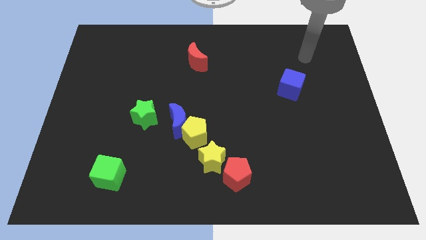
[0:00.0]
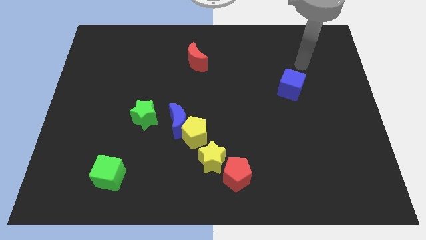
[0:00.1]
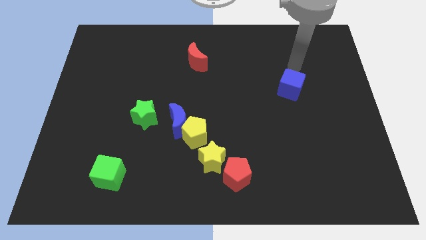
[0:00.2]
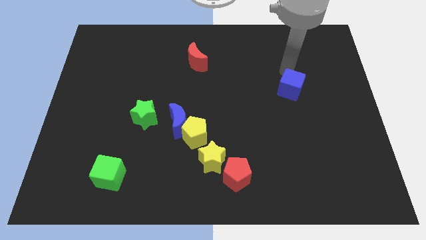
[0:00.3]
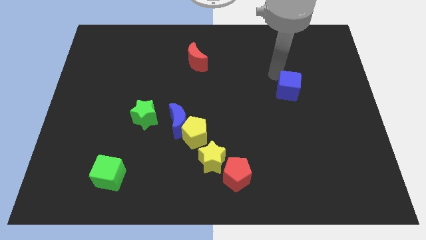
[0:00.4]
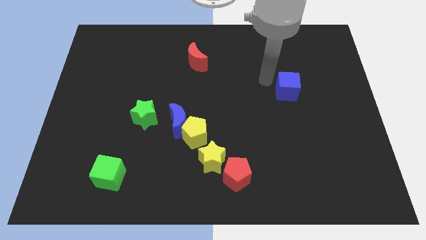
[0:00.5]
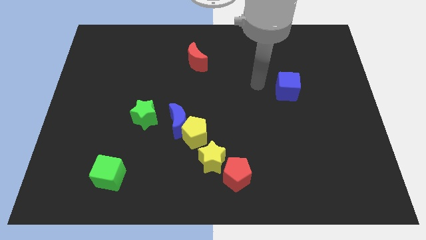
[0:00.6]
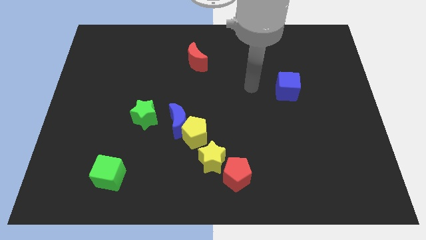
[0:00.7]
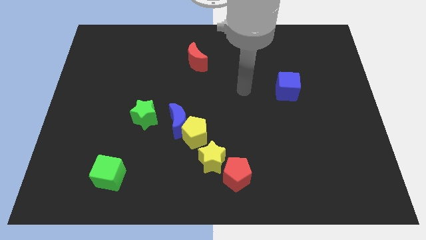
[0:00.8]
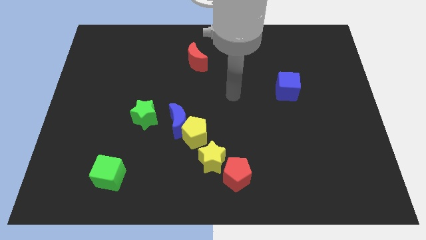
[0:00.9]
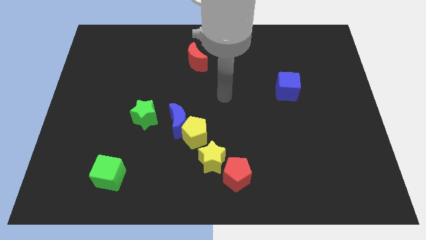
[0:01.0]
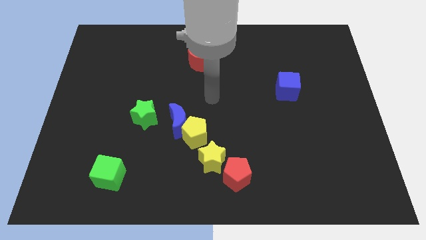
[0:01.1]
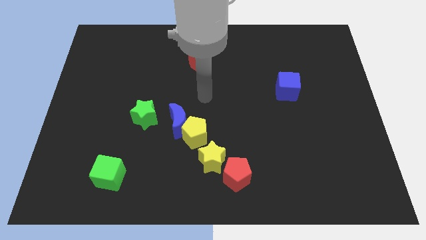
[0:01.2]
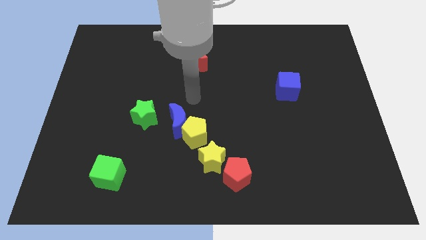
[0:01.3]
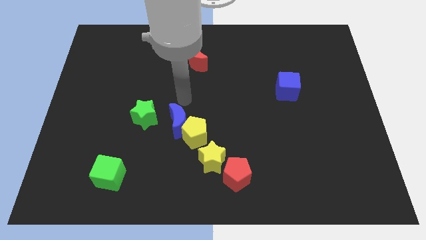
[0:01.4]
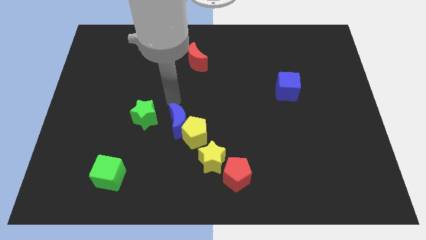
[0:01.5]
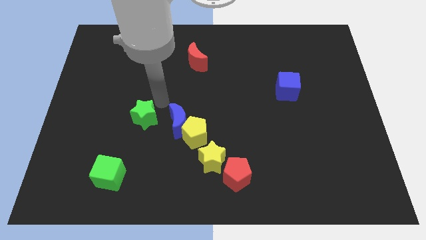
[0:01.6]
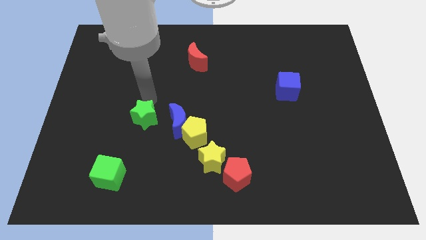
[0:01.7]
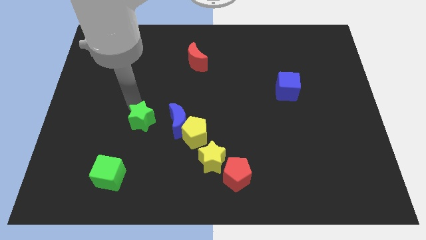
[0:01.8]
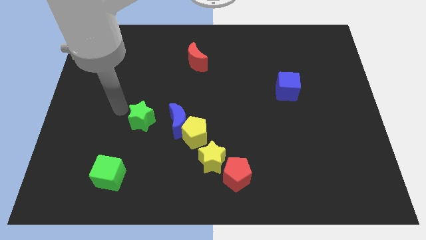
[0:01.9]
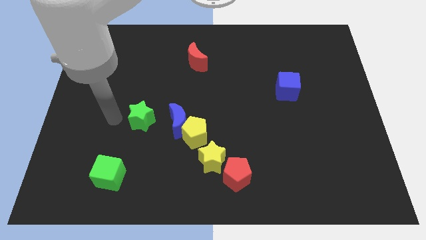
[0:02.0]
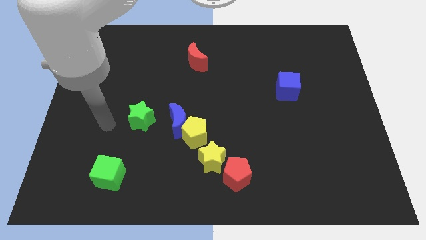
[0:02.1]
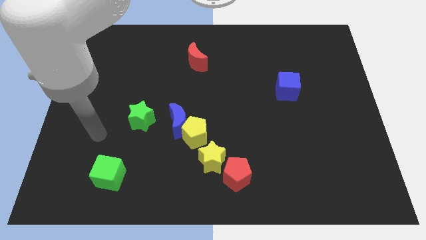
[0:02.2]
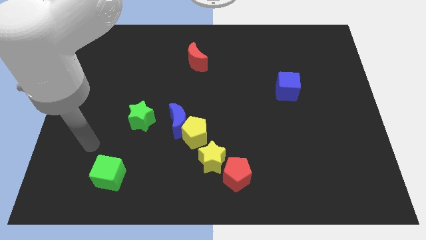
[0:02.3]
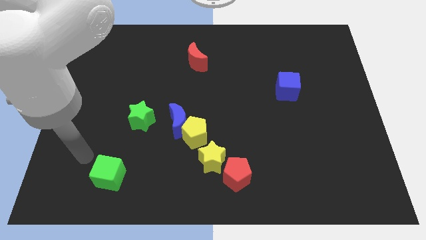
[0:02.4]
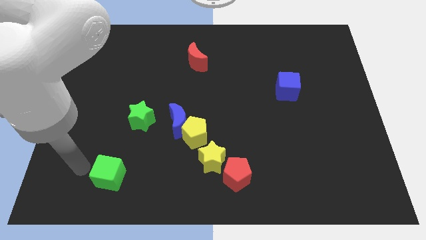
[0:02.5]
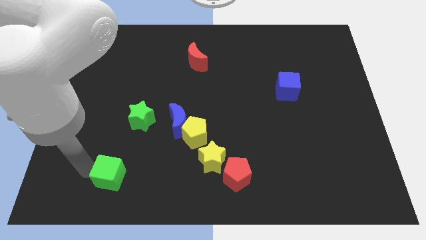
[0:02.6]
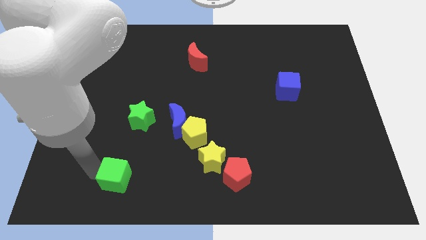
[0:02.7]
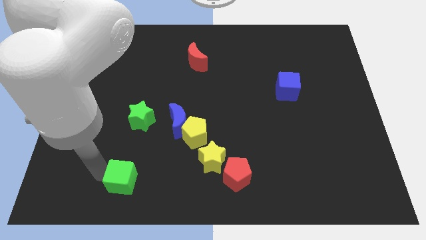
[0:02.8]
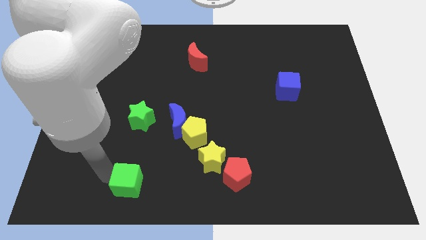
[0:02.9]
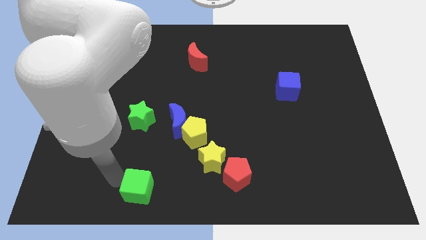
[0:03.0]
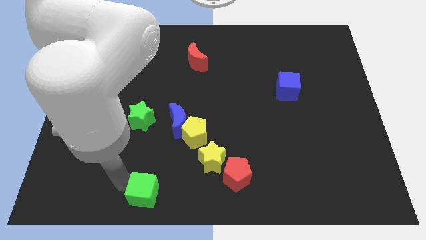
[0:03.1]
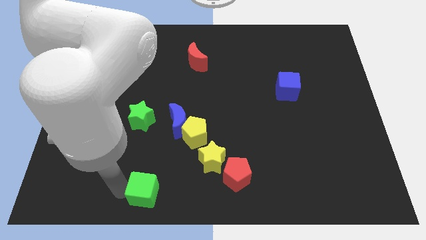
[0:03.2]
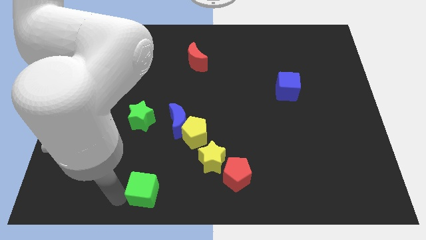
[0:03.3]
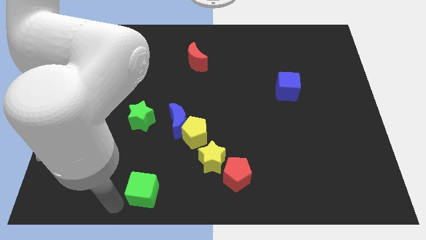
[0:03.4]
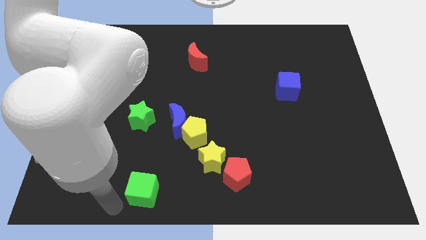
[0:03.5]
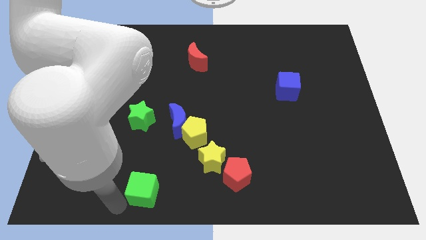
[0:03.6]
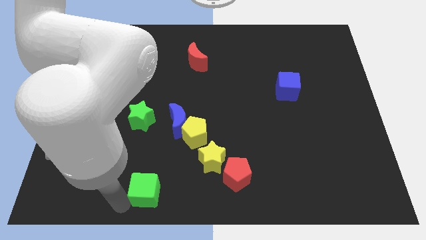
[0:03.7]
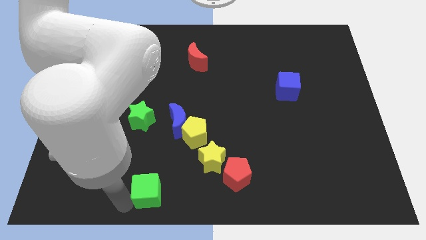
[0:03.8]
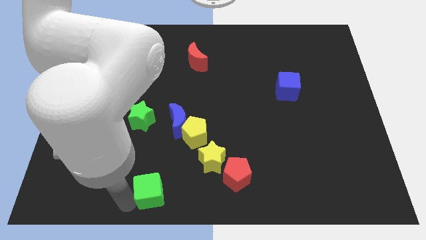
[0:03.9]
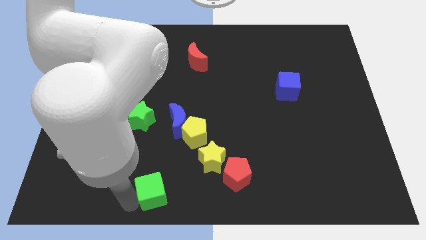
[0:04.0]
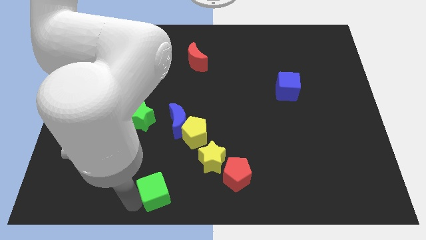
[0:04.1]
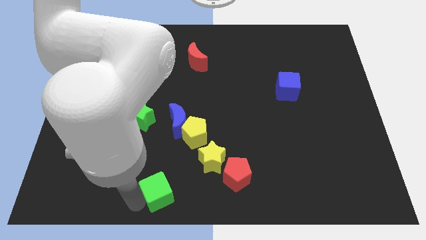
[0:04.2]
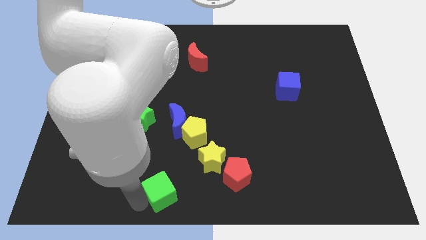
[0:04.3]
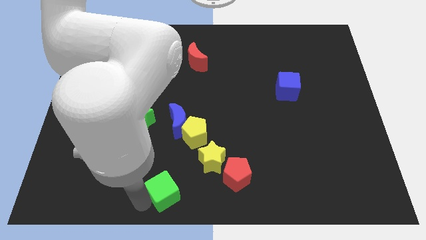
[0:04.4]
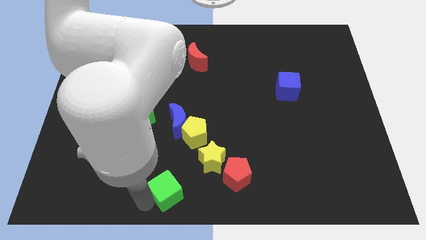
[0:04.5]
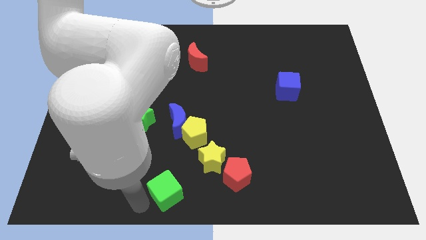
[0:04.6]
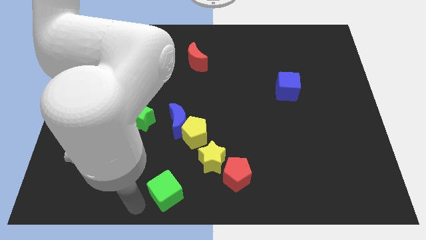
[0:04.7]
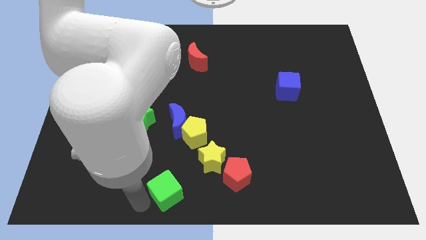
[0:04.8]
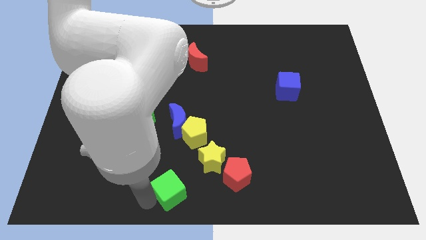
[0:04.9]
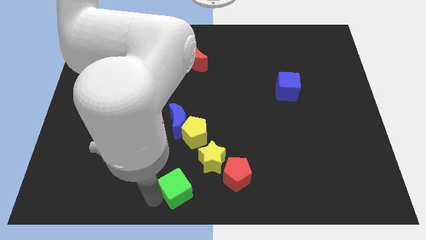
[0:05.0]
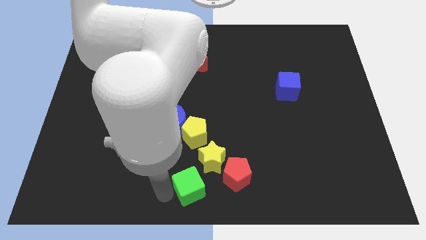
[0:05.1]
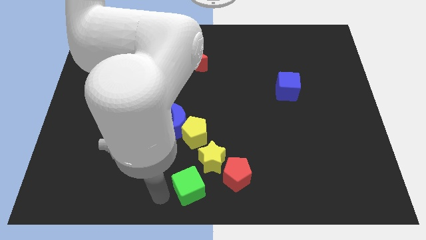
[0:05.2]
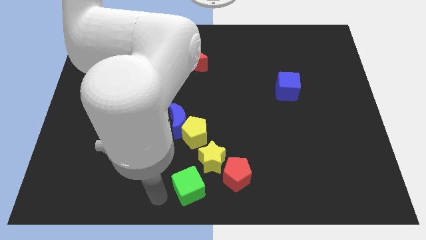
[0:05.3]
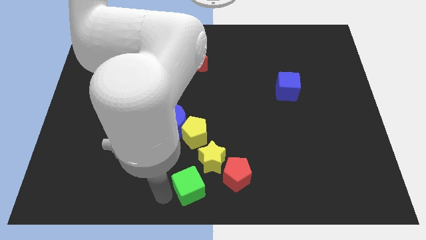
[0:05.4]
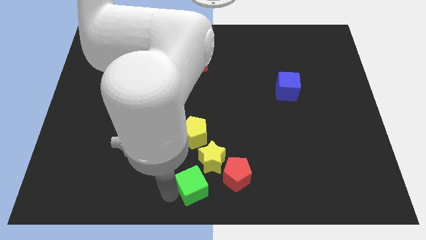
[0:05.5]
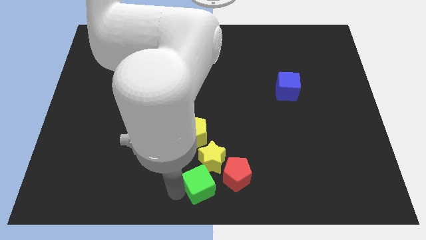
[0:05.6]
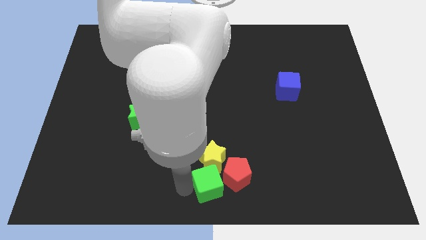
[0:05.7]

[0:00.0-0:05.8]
move the green cube to the right

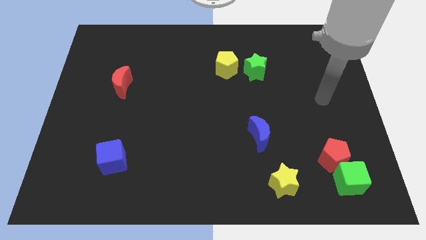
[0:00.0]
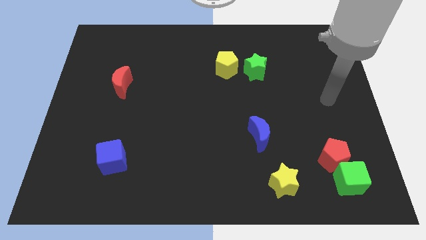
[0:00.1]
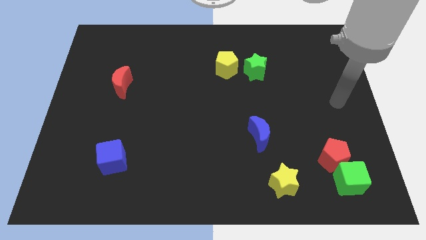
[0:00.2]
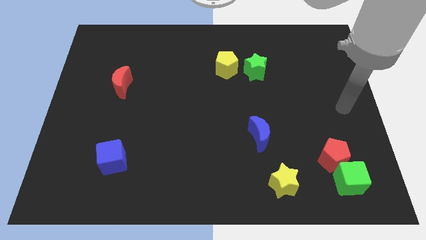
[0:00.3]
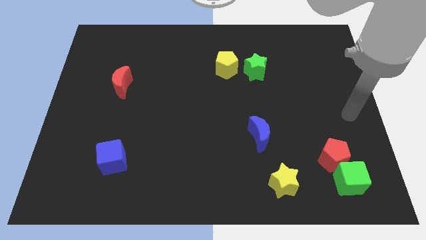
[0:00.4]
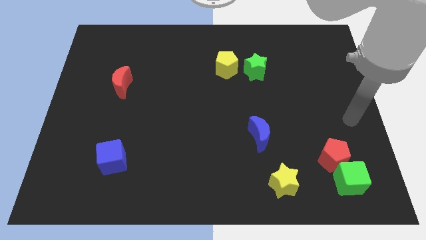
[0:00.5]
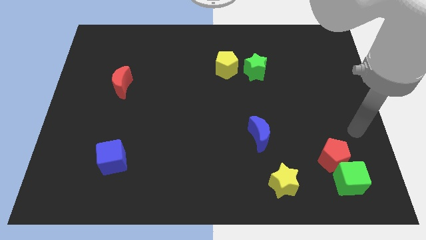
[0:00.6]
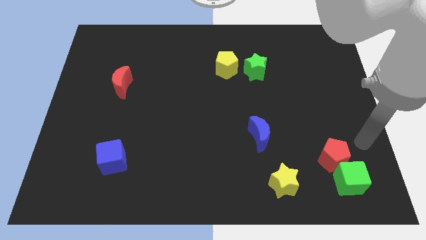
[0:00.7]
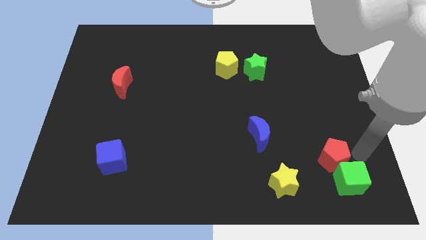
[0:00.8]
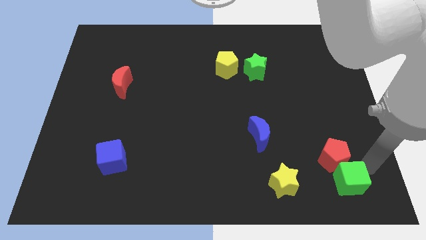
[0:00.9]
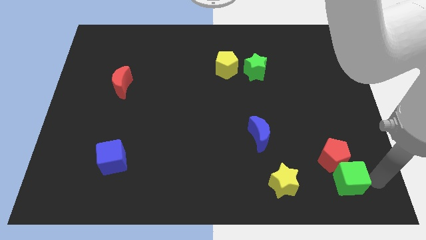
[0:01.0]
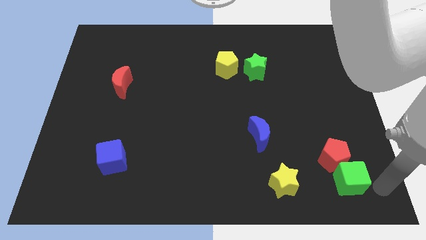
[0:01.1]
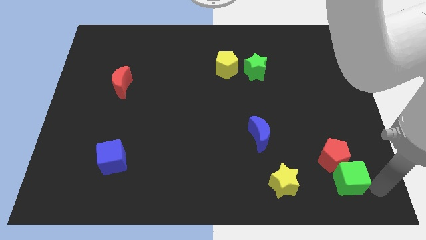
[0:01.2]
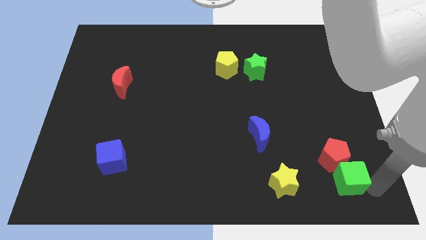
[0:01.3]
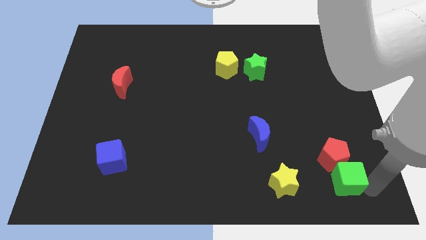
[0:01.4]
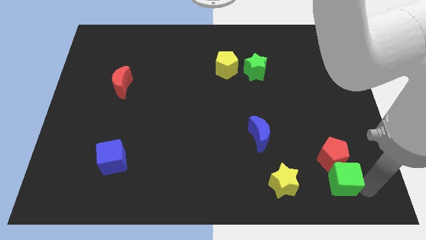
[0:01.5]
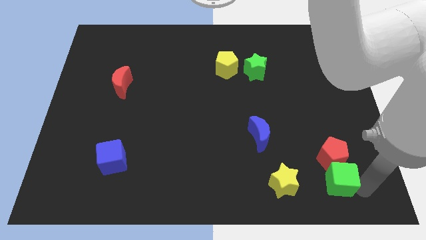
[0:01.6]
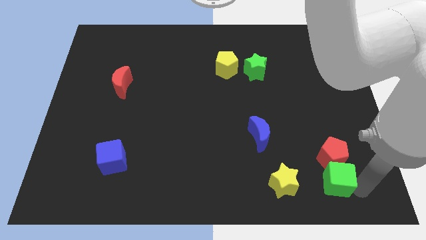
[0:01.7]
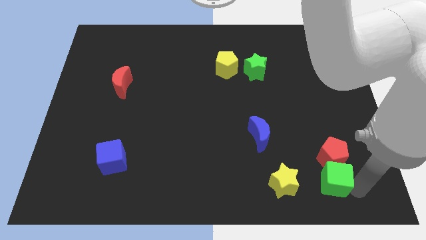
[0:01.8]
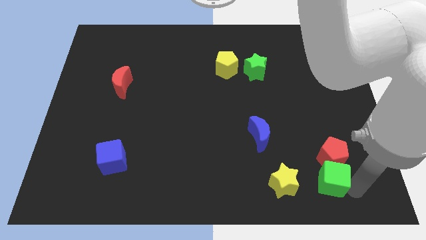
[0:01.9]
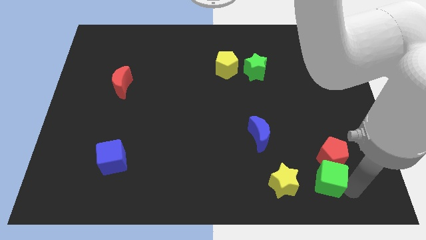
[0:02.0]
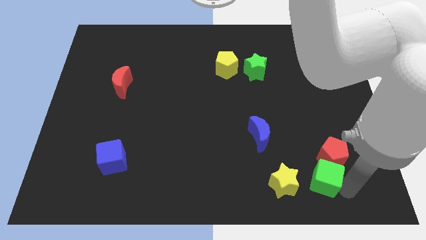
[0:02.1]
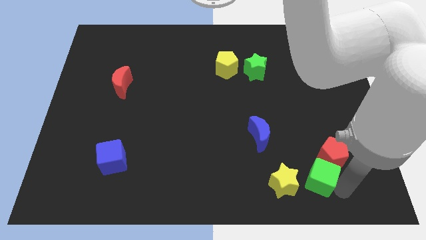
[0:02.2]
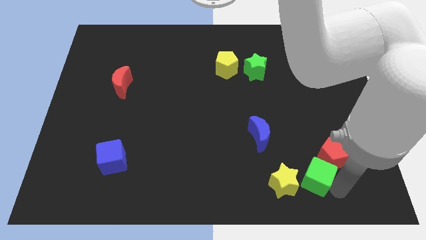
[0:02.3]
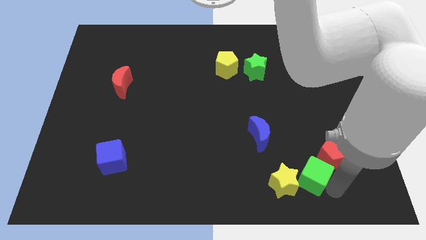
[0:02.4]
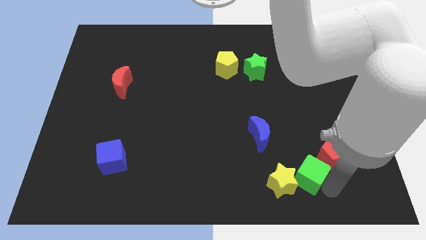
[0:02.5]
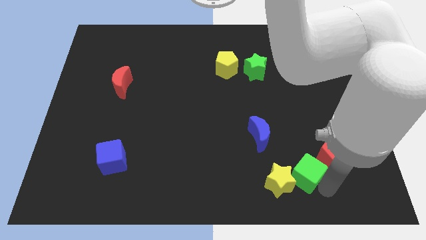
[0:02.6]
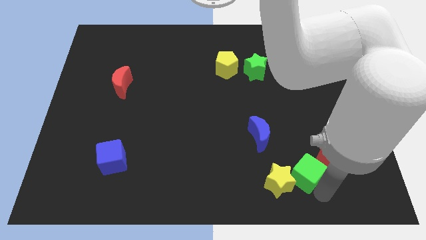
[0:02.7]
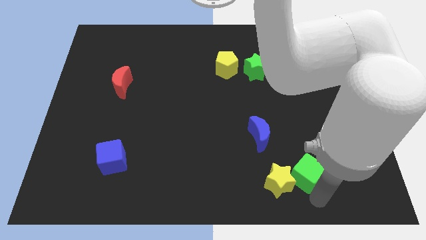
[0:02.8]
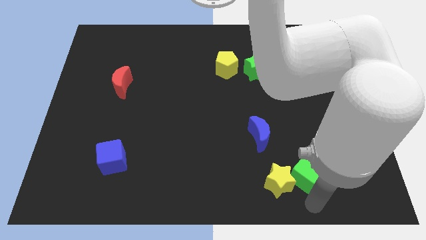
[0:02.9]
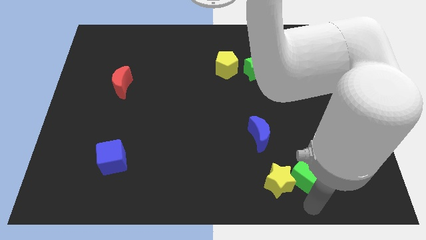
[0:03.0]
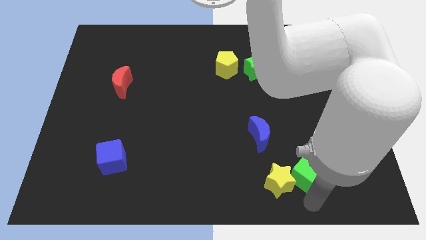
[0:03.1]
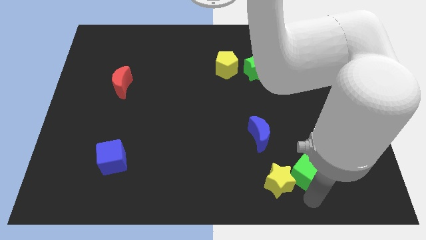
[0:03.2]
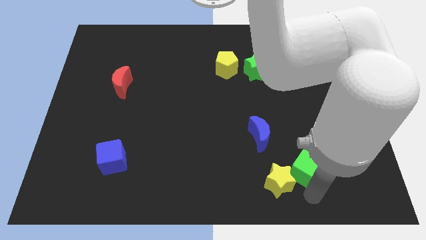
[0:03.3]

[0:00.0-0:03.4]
slightly move the green cube up and then left
